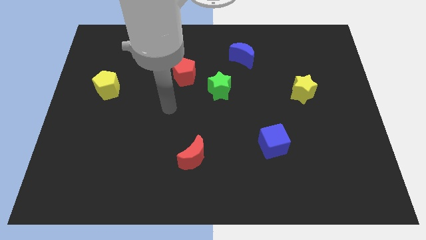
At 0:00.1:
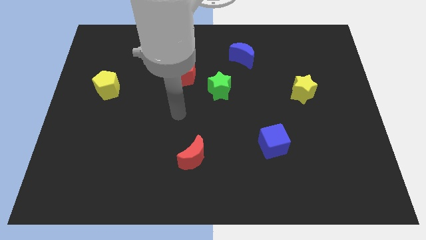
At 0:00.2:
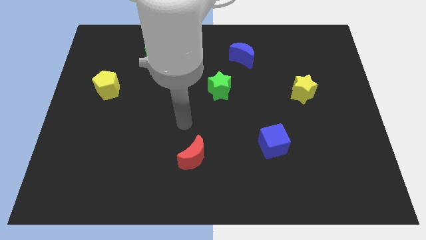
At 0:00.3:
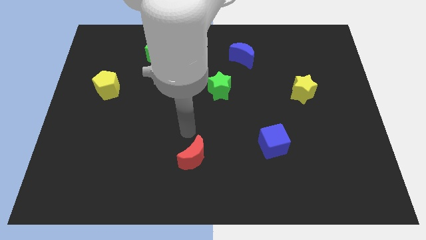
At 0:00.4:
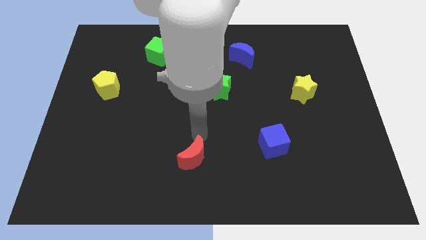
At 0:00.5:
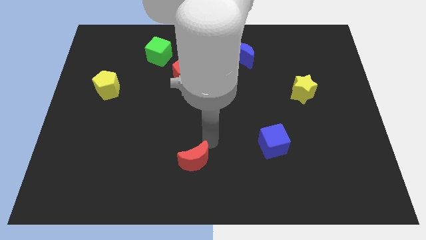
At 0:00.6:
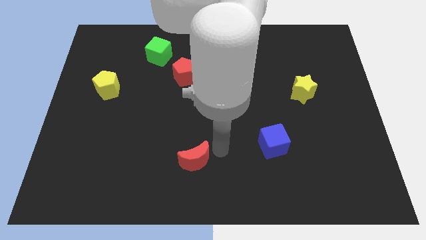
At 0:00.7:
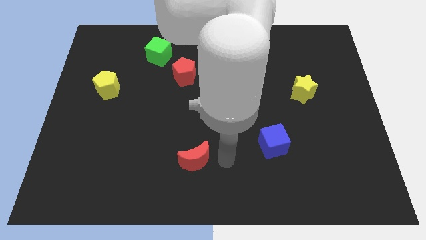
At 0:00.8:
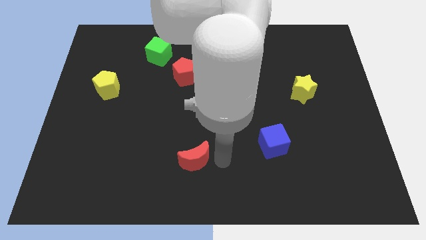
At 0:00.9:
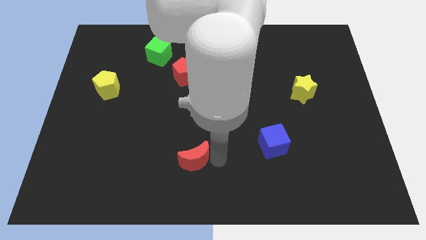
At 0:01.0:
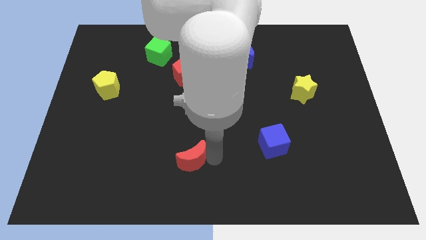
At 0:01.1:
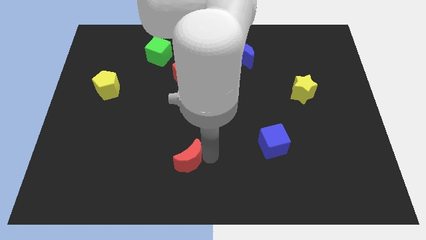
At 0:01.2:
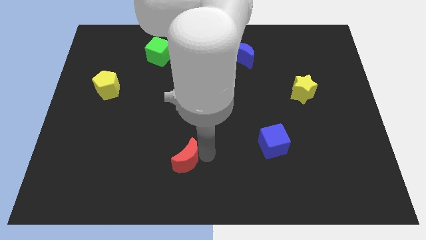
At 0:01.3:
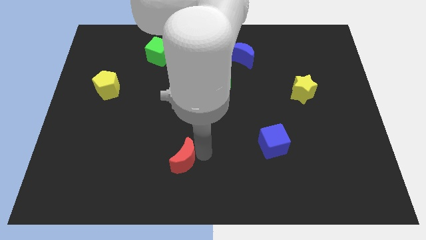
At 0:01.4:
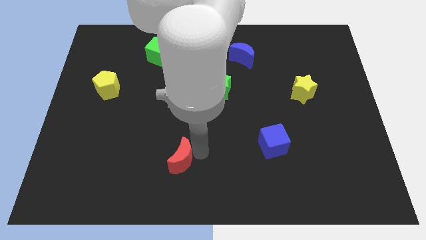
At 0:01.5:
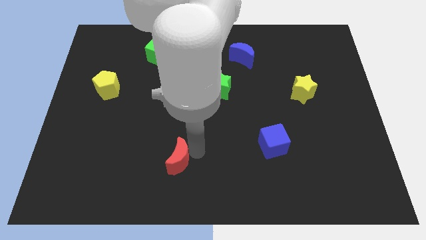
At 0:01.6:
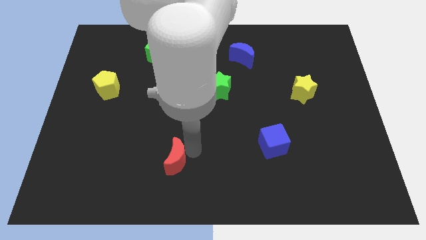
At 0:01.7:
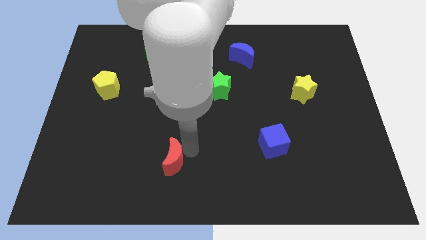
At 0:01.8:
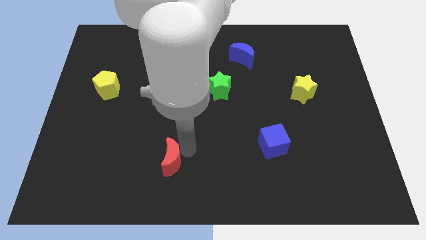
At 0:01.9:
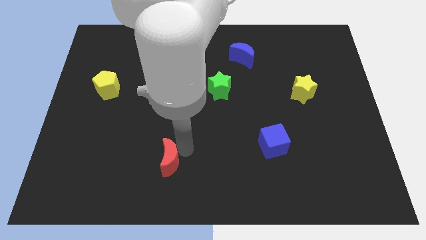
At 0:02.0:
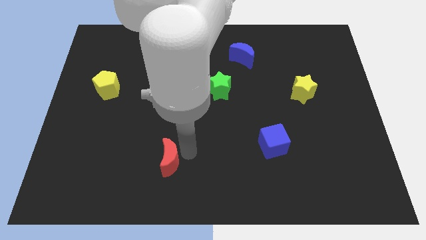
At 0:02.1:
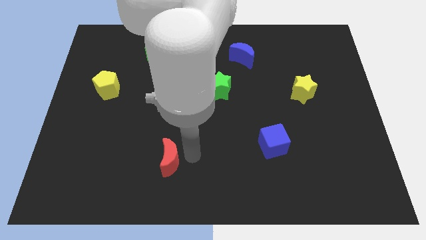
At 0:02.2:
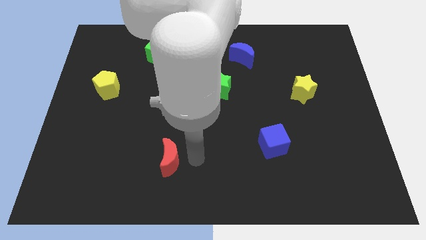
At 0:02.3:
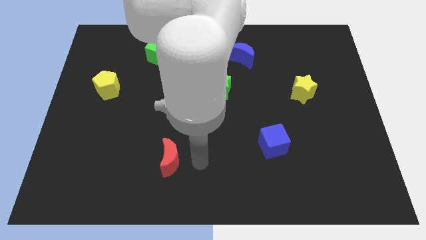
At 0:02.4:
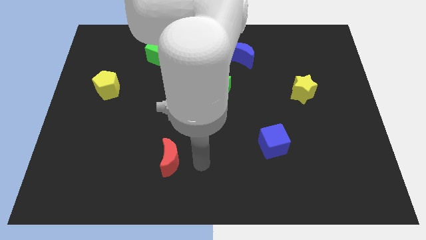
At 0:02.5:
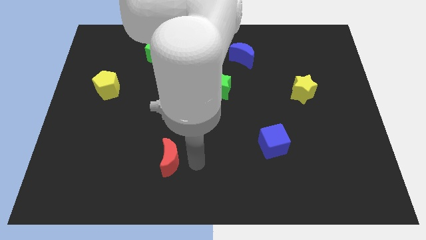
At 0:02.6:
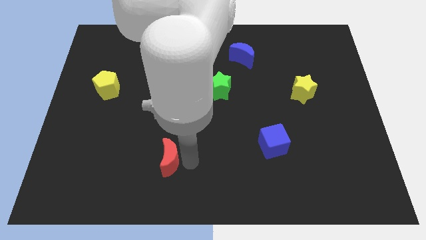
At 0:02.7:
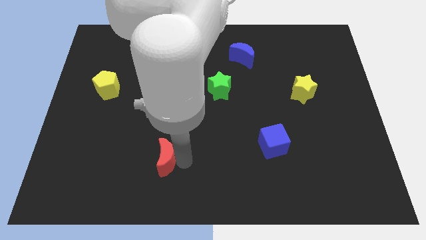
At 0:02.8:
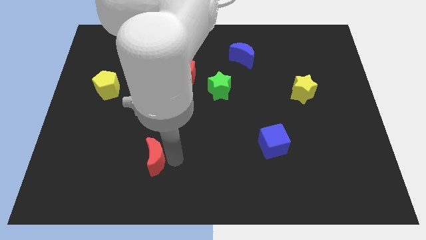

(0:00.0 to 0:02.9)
slightly move the red moon to the left

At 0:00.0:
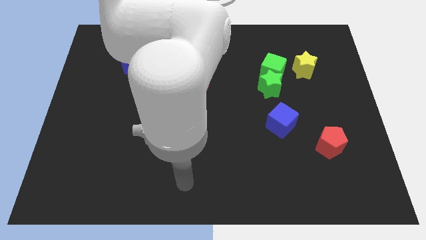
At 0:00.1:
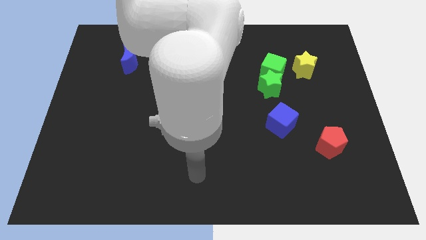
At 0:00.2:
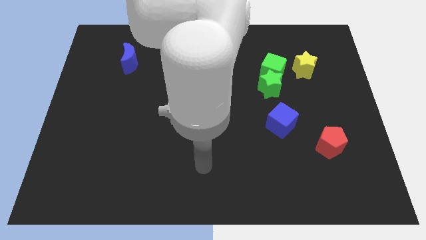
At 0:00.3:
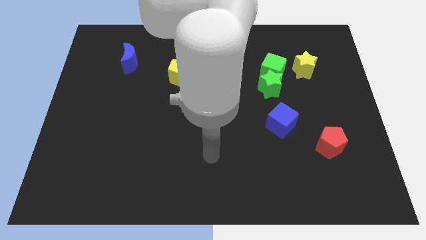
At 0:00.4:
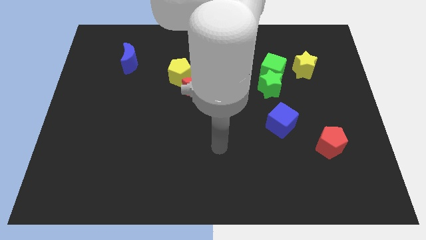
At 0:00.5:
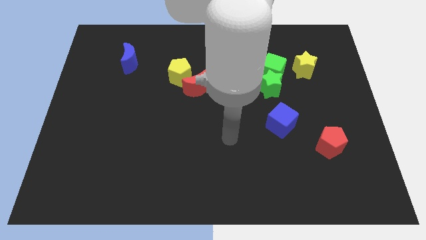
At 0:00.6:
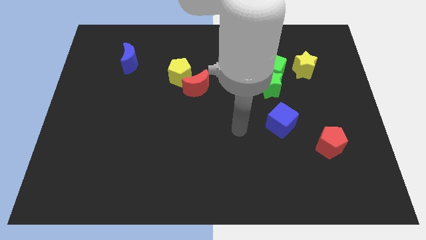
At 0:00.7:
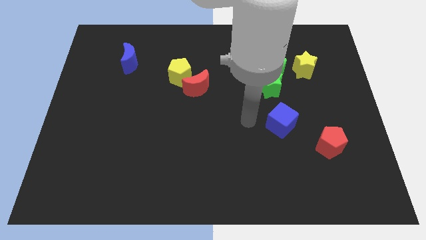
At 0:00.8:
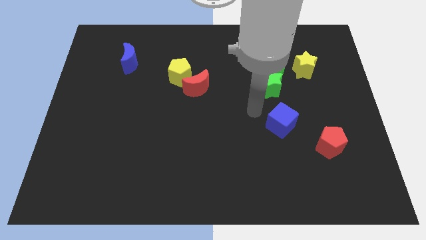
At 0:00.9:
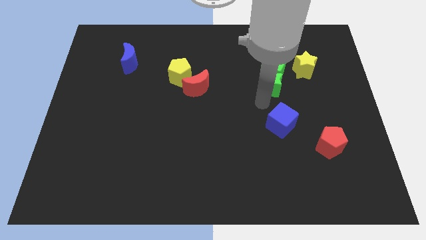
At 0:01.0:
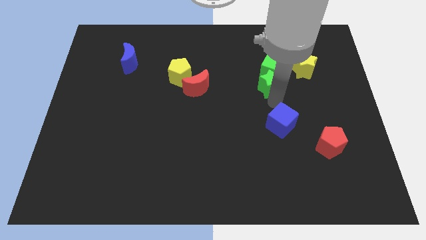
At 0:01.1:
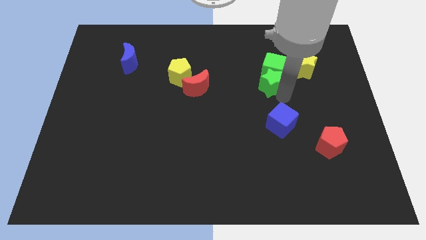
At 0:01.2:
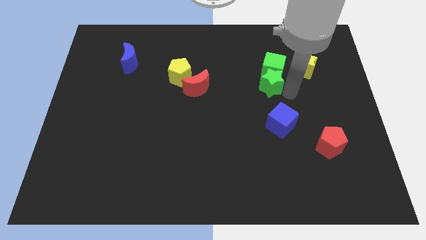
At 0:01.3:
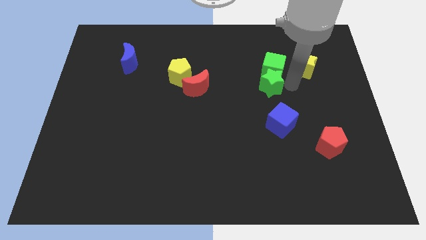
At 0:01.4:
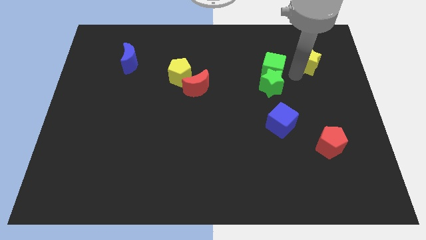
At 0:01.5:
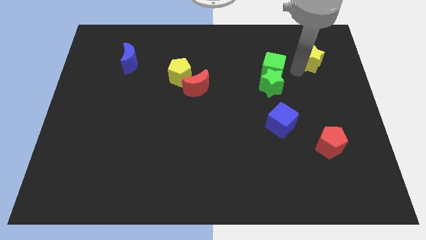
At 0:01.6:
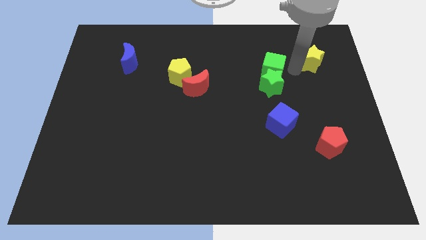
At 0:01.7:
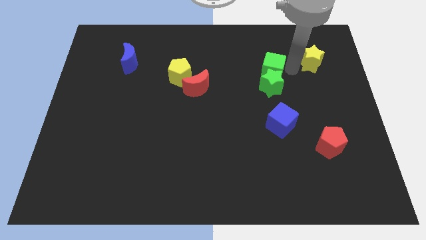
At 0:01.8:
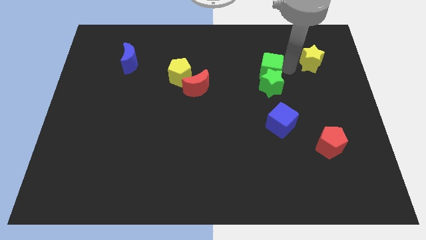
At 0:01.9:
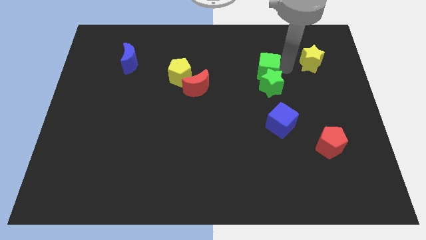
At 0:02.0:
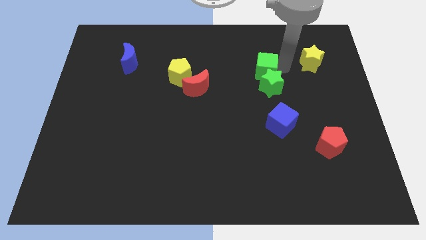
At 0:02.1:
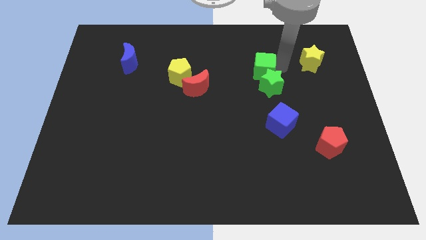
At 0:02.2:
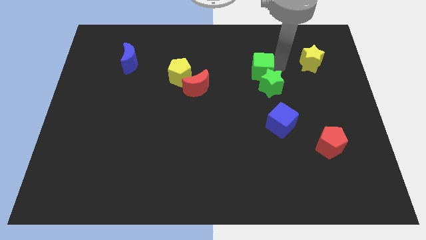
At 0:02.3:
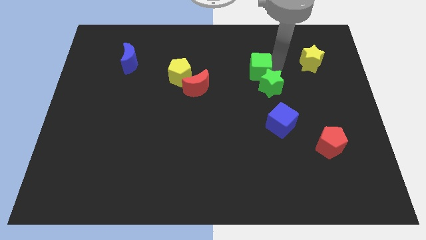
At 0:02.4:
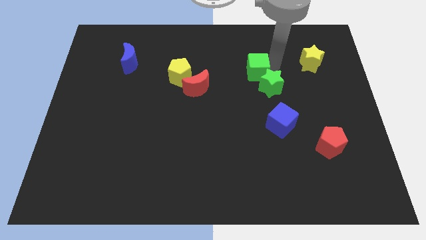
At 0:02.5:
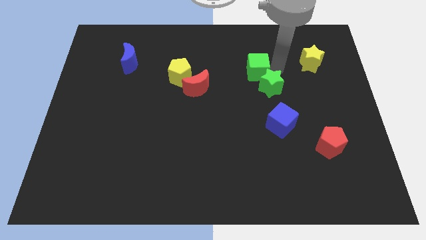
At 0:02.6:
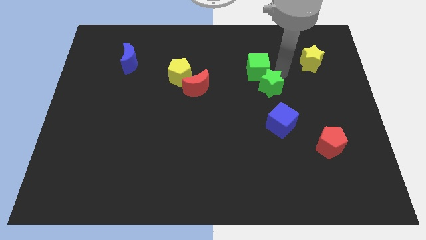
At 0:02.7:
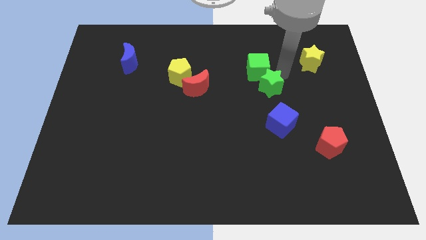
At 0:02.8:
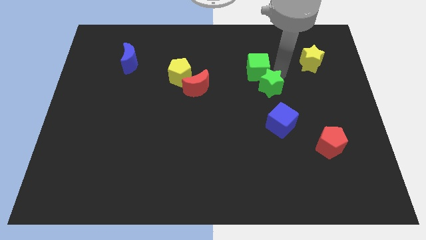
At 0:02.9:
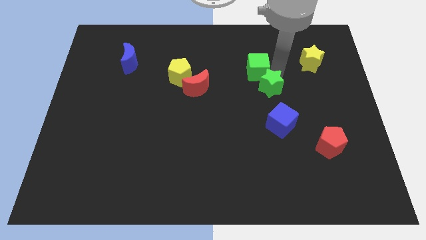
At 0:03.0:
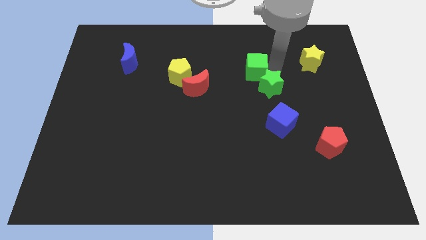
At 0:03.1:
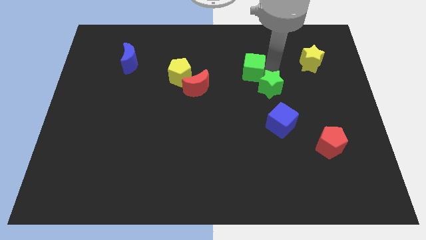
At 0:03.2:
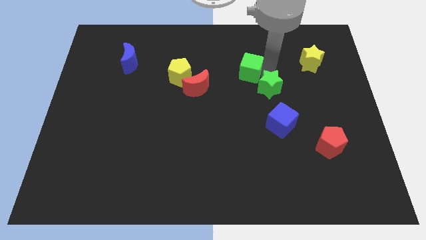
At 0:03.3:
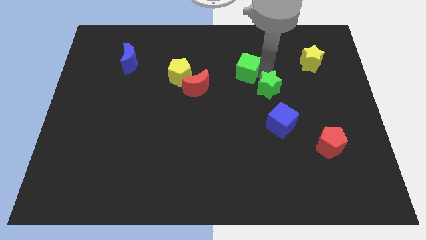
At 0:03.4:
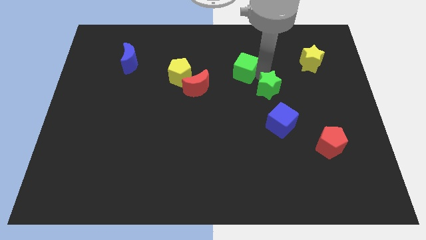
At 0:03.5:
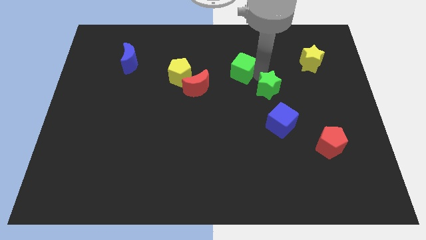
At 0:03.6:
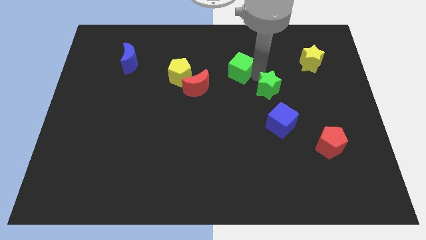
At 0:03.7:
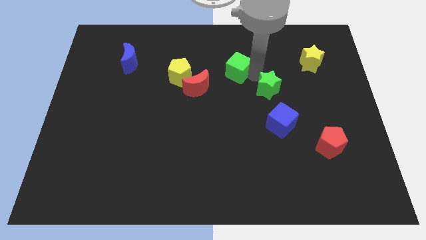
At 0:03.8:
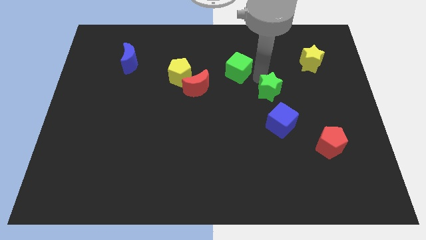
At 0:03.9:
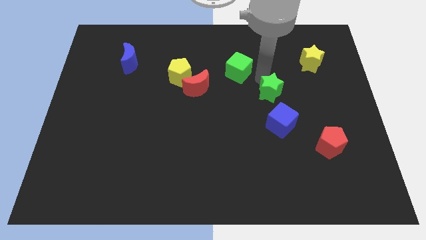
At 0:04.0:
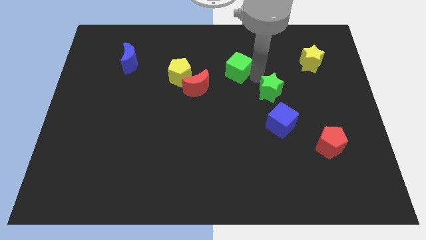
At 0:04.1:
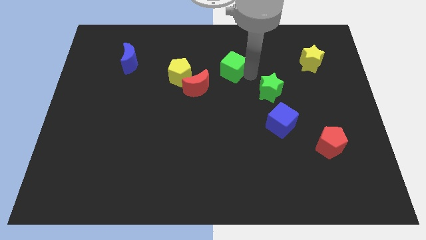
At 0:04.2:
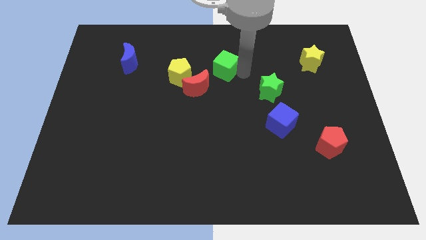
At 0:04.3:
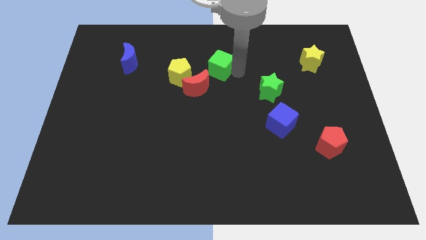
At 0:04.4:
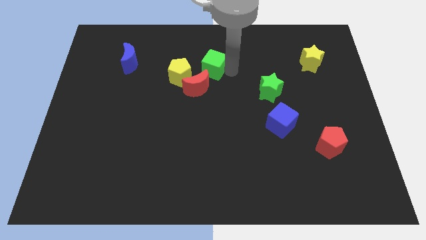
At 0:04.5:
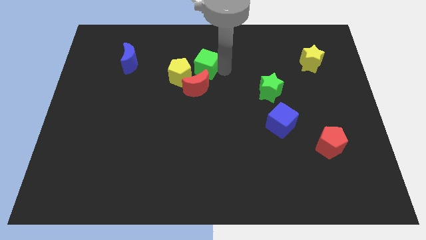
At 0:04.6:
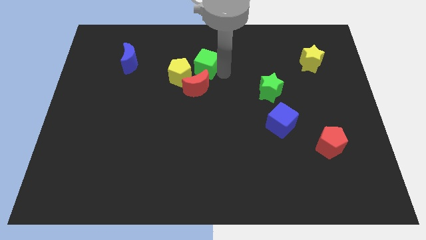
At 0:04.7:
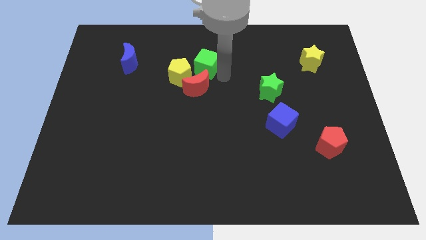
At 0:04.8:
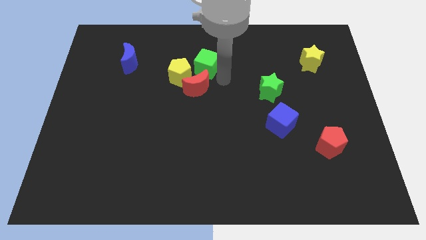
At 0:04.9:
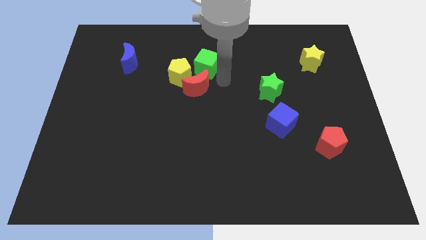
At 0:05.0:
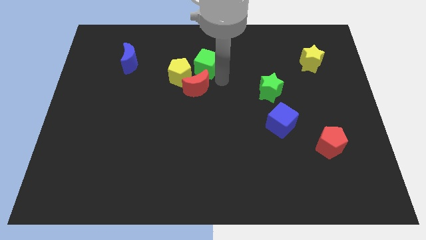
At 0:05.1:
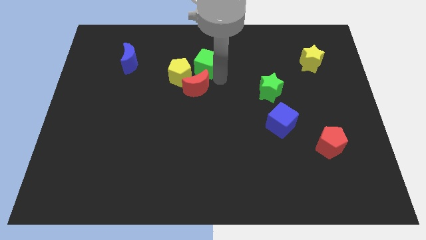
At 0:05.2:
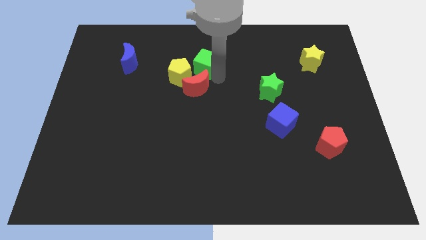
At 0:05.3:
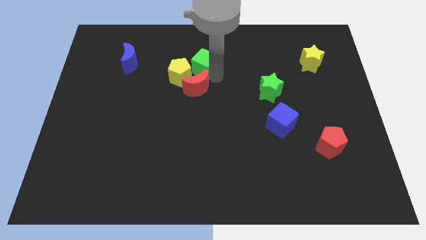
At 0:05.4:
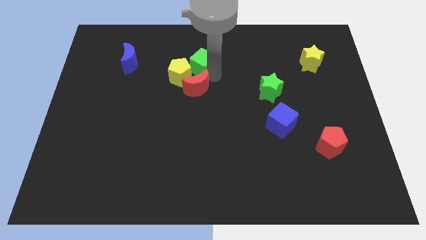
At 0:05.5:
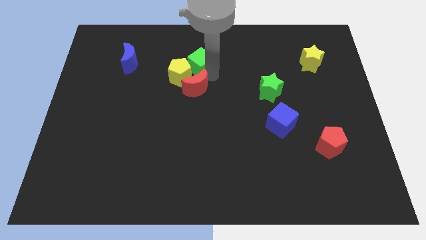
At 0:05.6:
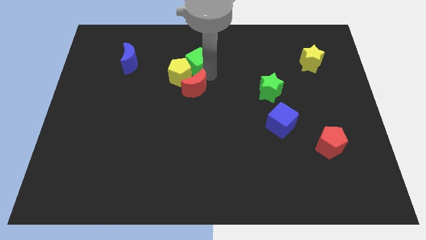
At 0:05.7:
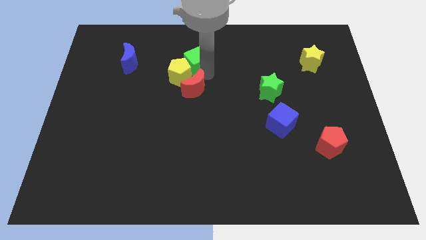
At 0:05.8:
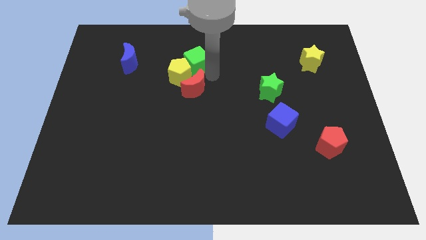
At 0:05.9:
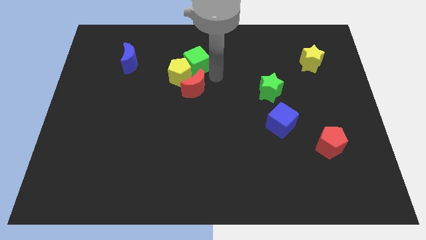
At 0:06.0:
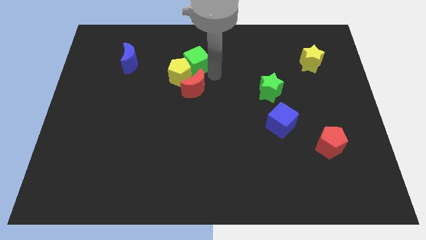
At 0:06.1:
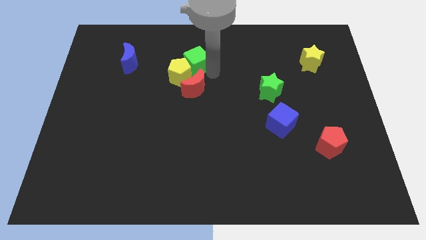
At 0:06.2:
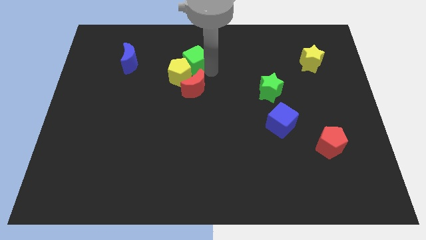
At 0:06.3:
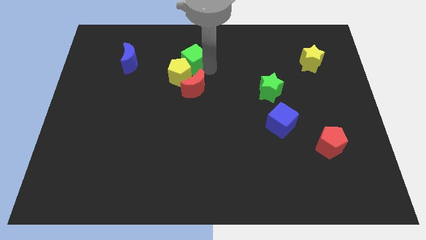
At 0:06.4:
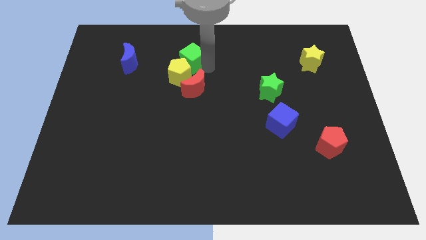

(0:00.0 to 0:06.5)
move the green cube left
